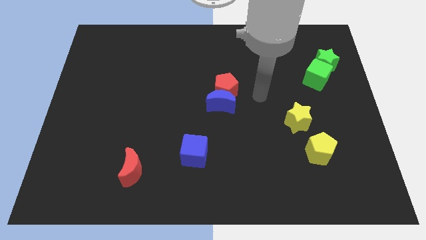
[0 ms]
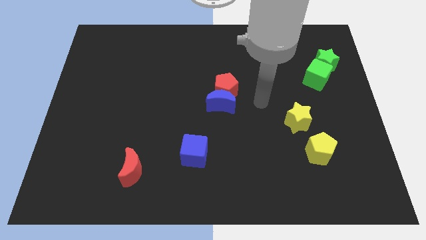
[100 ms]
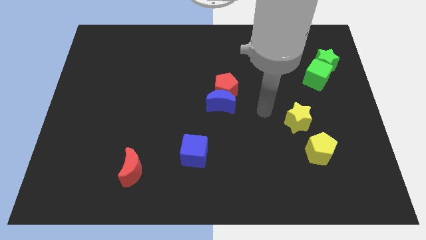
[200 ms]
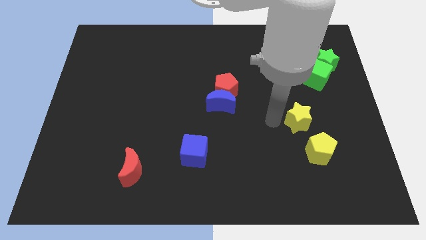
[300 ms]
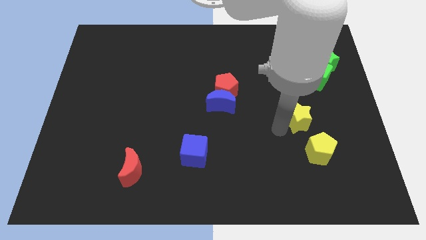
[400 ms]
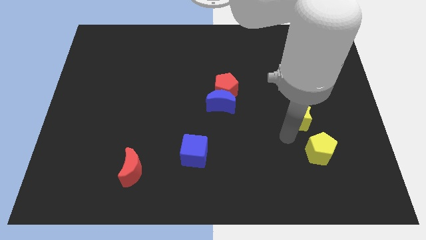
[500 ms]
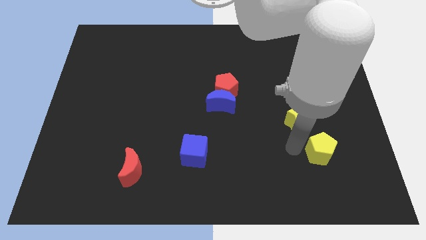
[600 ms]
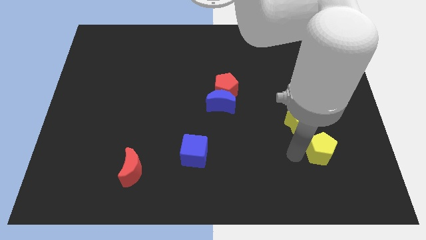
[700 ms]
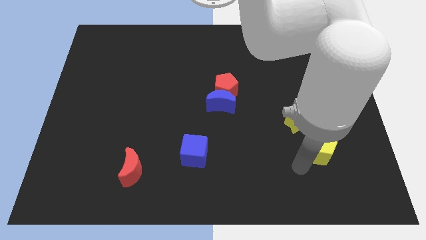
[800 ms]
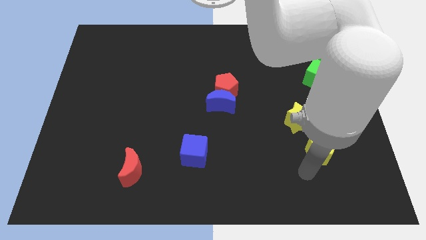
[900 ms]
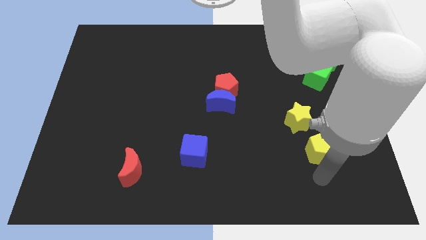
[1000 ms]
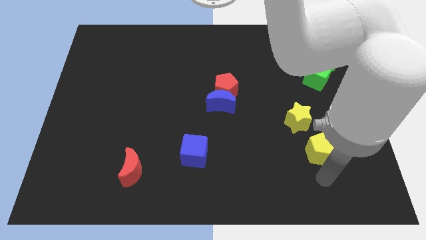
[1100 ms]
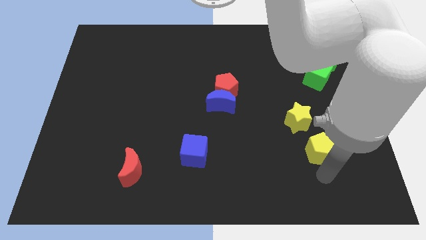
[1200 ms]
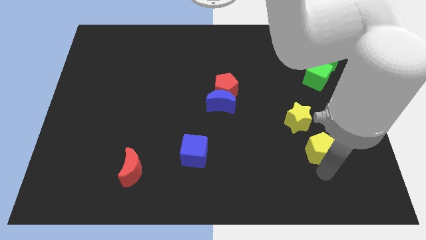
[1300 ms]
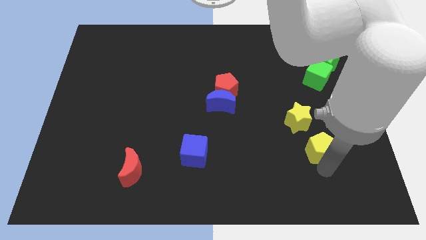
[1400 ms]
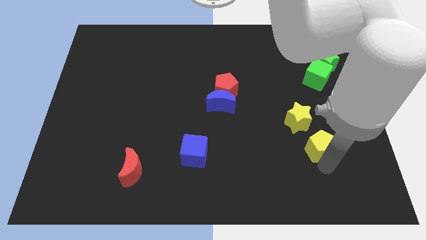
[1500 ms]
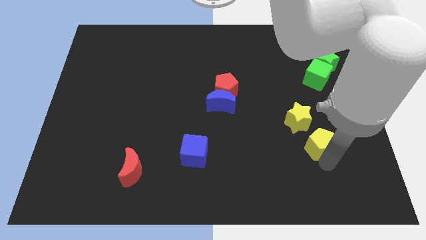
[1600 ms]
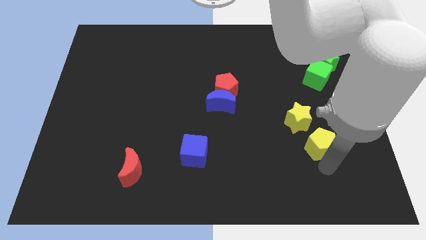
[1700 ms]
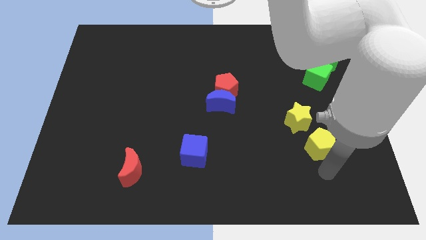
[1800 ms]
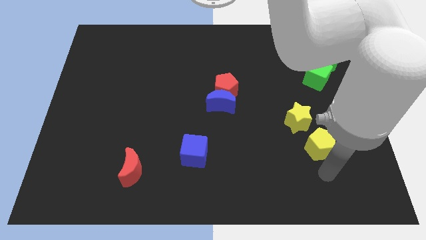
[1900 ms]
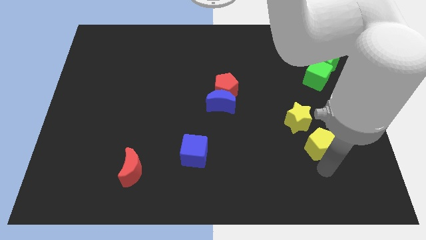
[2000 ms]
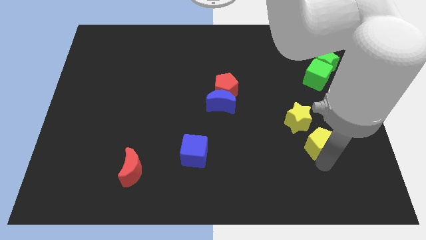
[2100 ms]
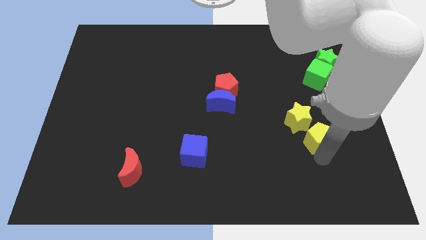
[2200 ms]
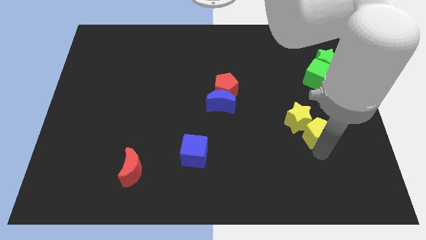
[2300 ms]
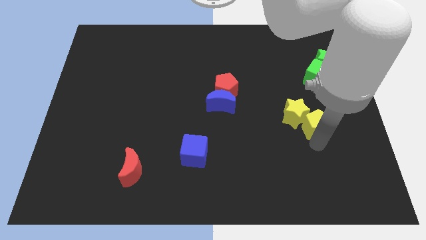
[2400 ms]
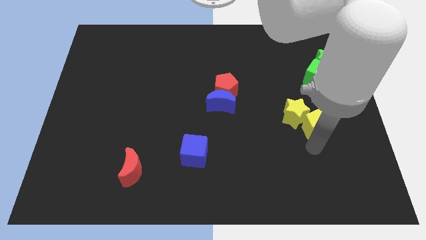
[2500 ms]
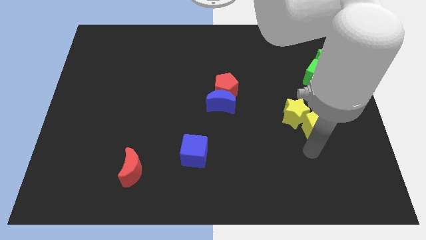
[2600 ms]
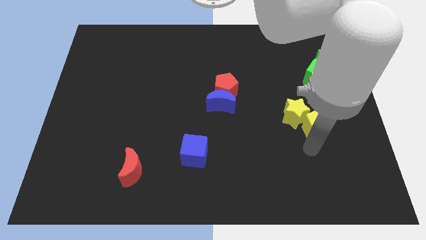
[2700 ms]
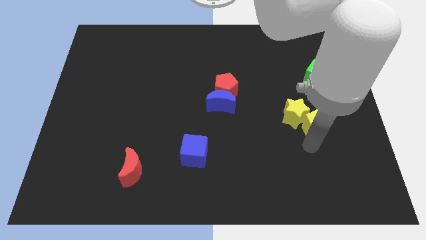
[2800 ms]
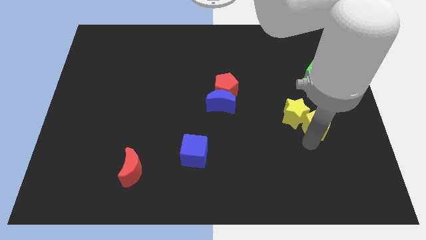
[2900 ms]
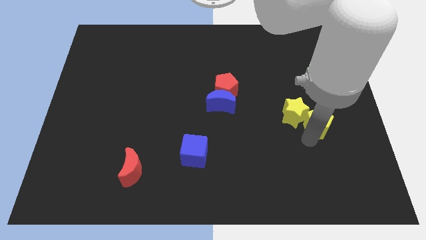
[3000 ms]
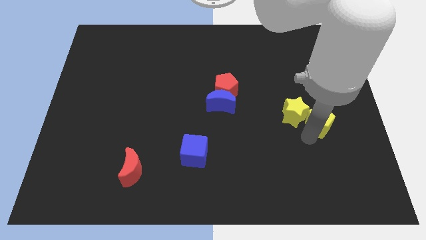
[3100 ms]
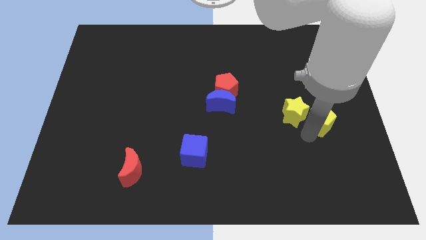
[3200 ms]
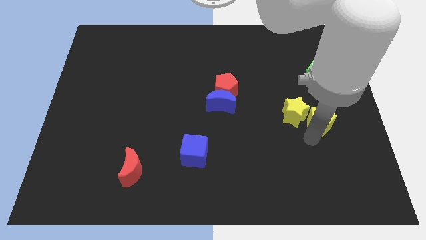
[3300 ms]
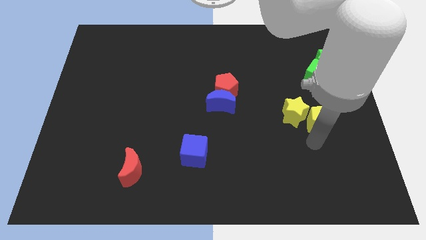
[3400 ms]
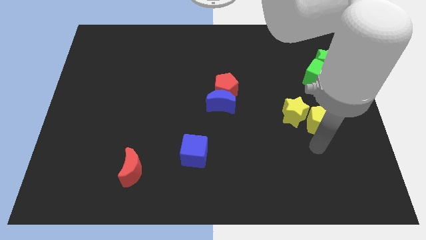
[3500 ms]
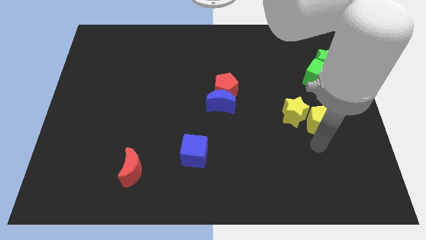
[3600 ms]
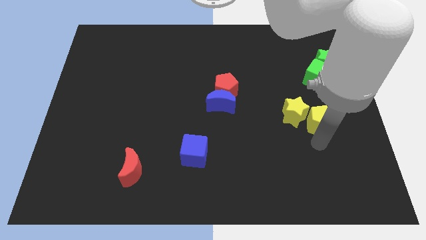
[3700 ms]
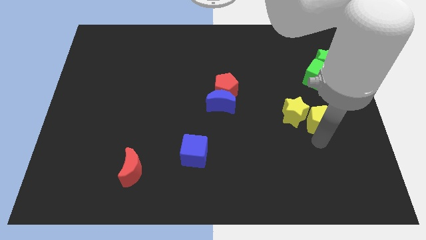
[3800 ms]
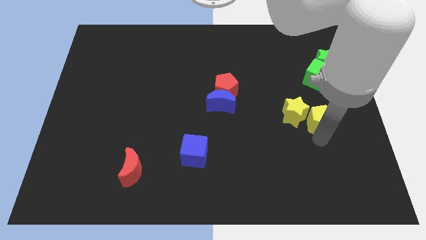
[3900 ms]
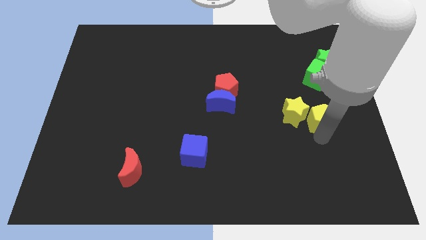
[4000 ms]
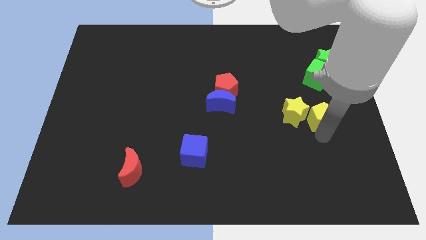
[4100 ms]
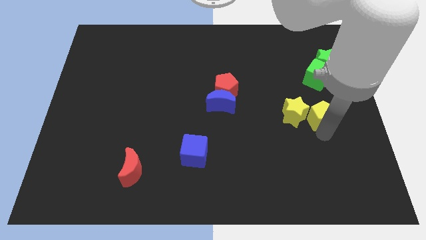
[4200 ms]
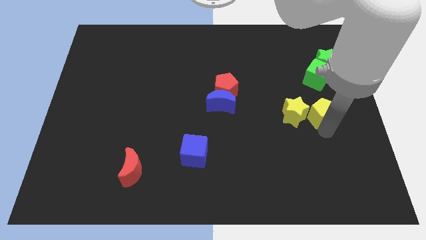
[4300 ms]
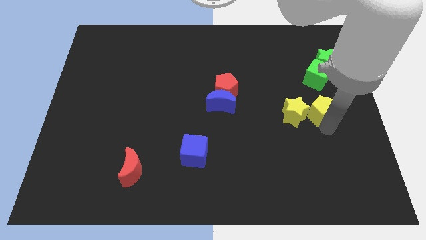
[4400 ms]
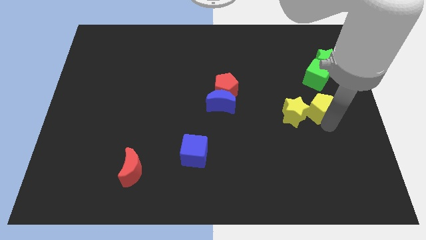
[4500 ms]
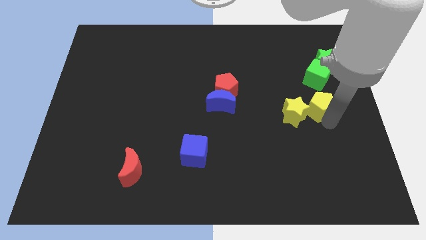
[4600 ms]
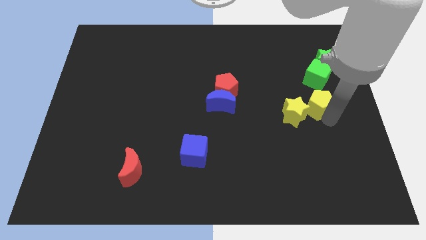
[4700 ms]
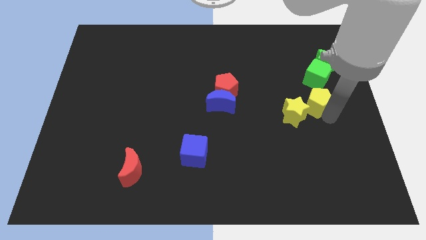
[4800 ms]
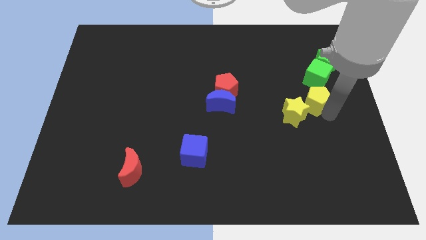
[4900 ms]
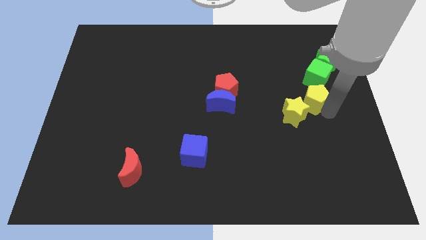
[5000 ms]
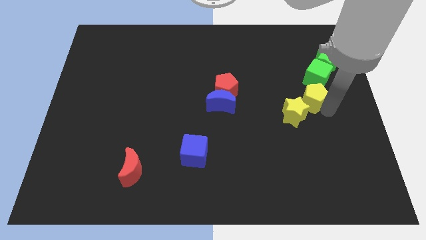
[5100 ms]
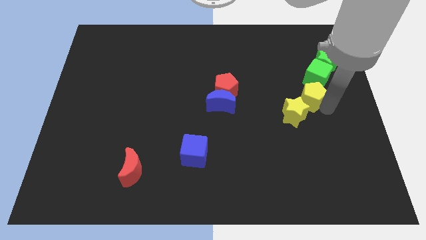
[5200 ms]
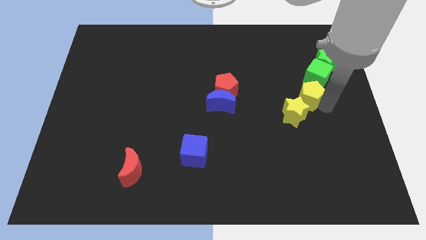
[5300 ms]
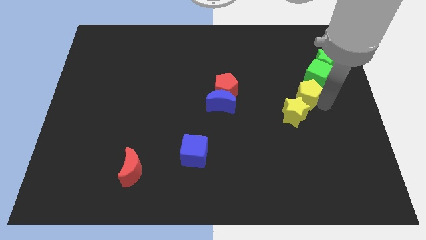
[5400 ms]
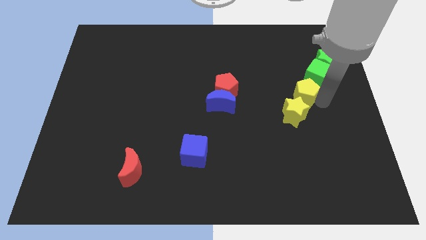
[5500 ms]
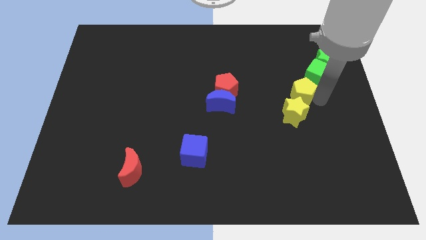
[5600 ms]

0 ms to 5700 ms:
slide the yellow pentagon to the bottom left of the green star

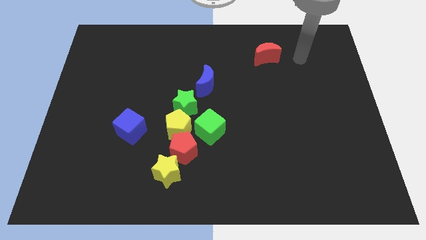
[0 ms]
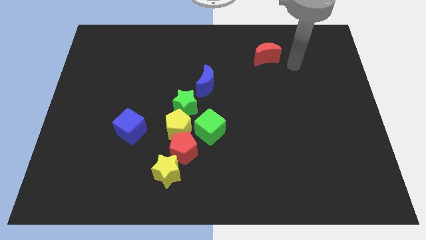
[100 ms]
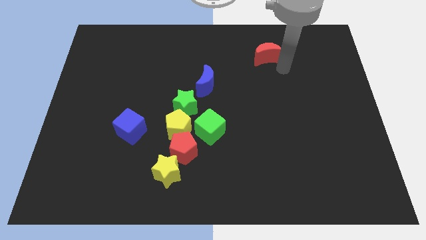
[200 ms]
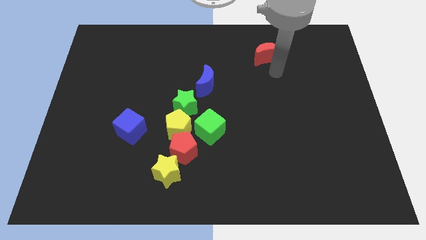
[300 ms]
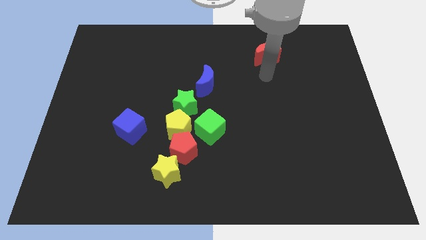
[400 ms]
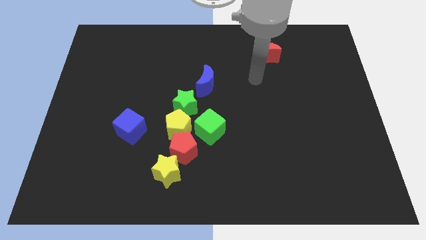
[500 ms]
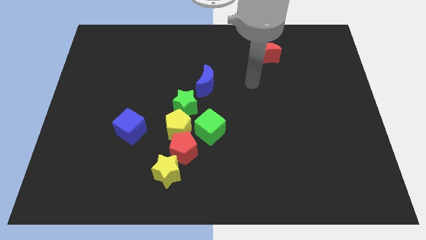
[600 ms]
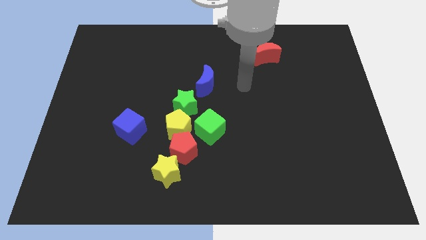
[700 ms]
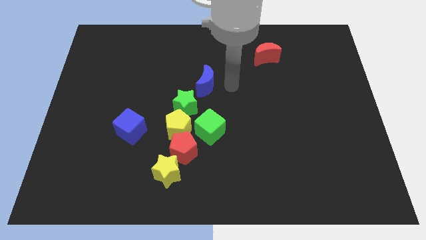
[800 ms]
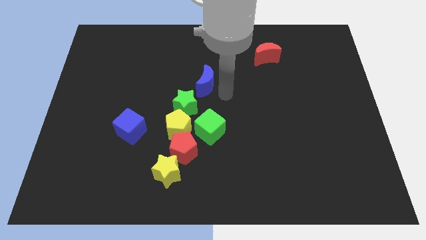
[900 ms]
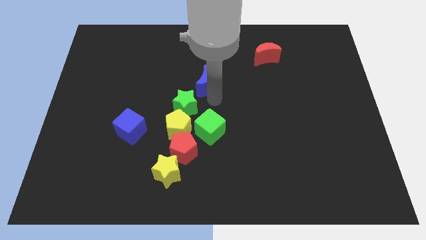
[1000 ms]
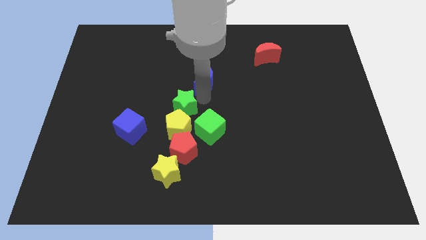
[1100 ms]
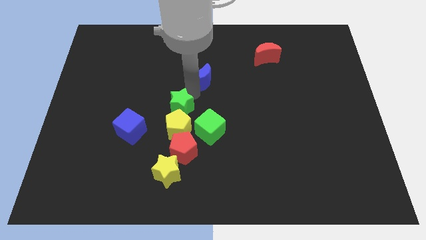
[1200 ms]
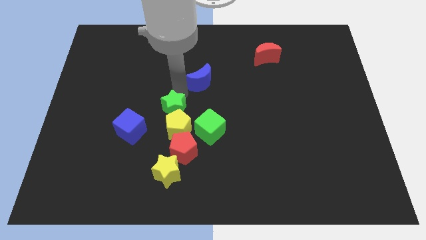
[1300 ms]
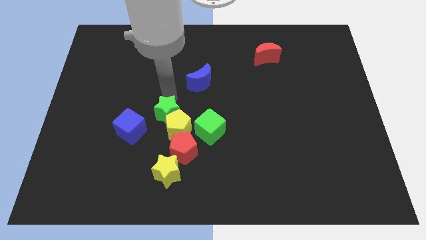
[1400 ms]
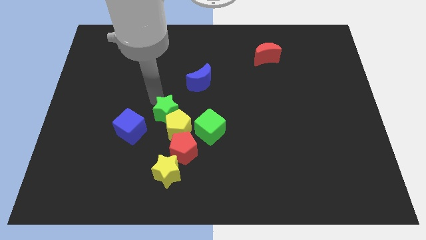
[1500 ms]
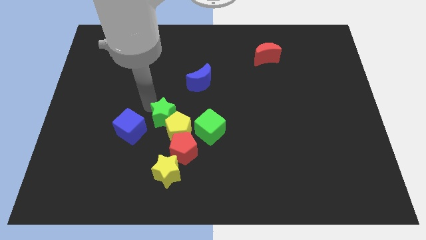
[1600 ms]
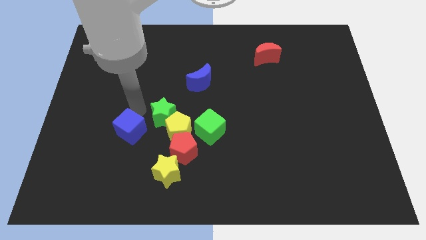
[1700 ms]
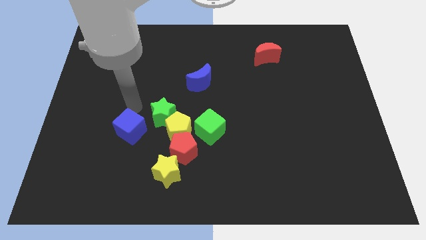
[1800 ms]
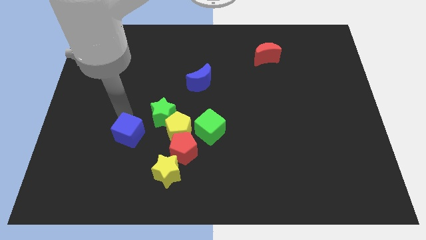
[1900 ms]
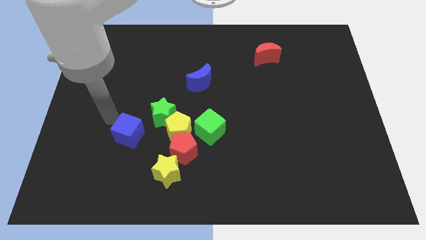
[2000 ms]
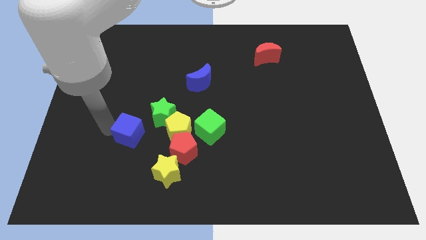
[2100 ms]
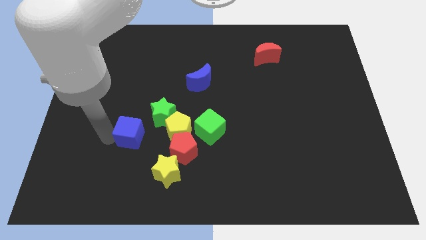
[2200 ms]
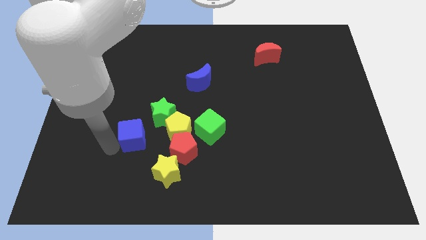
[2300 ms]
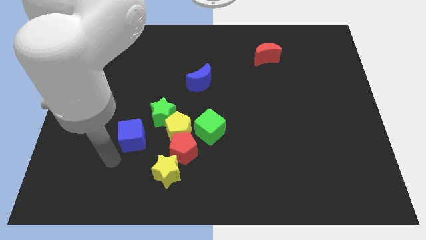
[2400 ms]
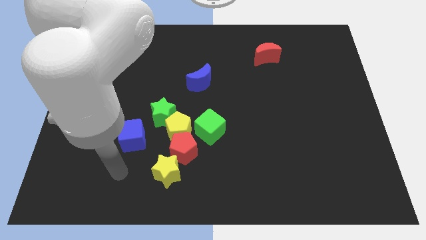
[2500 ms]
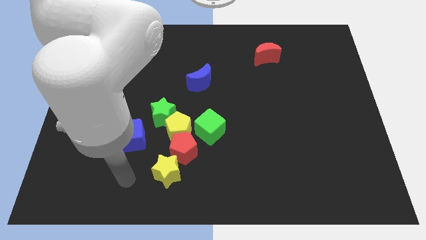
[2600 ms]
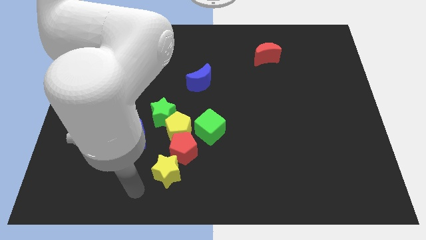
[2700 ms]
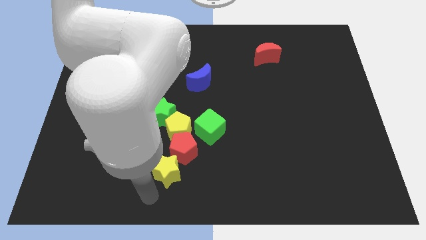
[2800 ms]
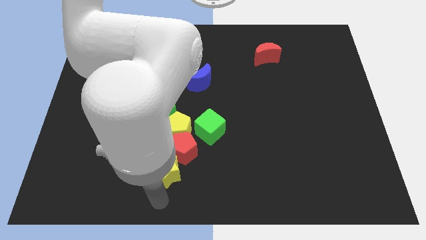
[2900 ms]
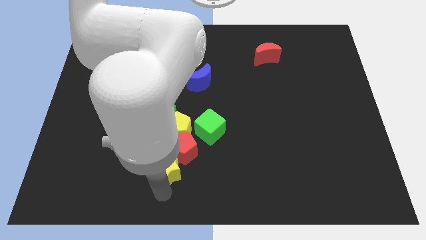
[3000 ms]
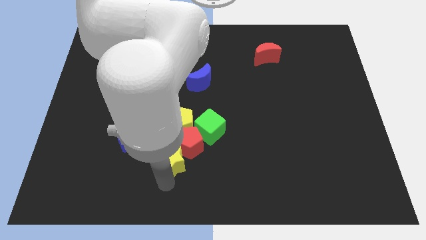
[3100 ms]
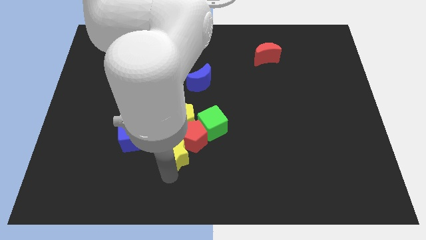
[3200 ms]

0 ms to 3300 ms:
push the yellow star right of the blue cube
